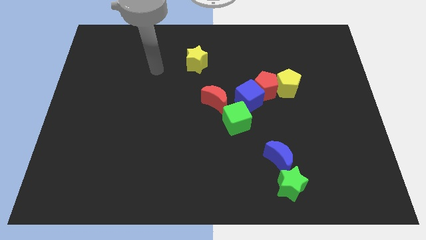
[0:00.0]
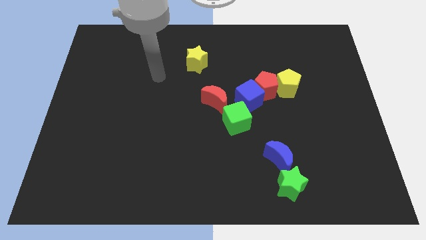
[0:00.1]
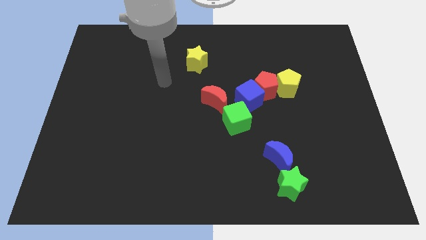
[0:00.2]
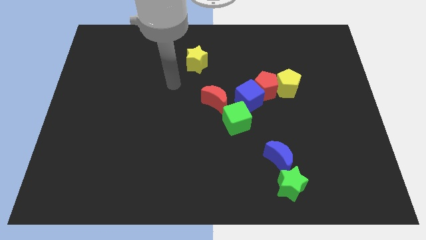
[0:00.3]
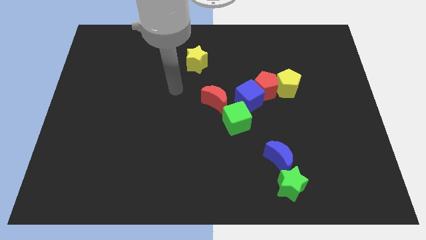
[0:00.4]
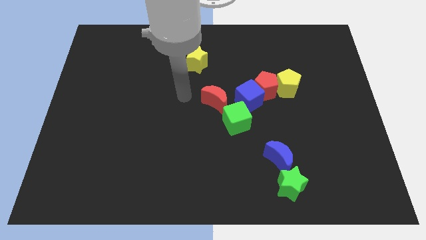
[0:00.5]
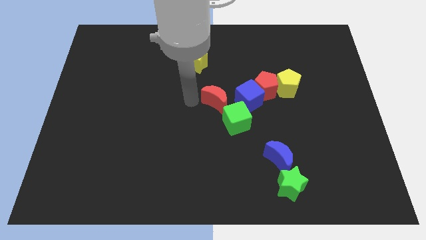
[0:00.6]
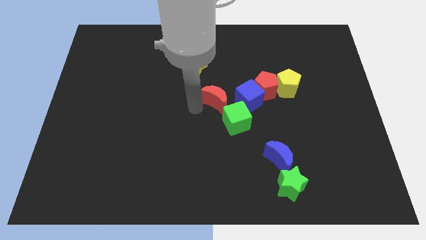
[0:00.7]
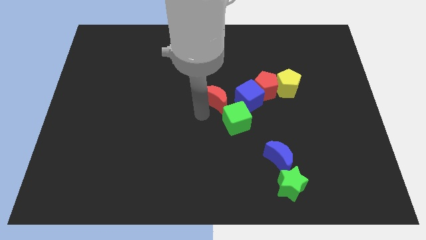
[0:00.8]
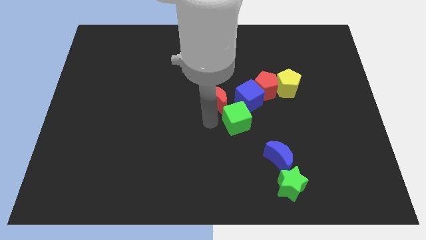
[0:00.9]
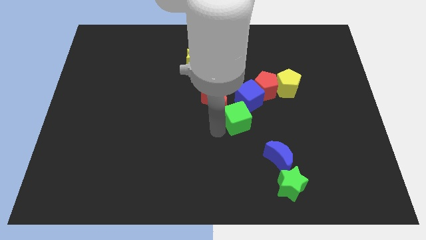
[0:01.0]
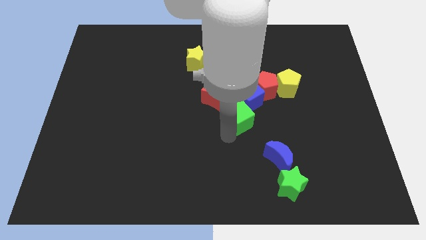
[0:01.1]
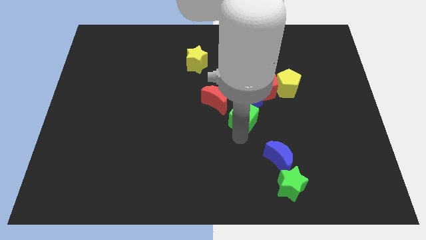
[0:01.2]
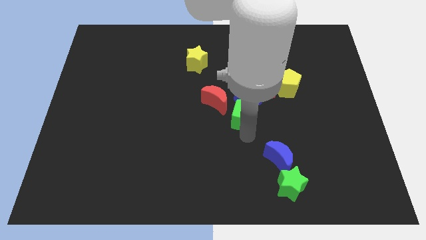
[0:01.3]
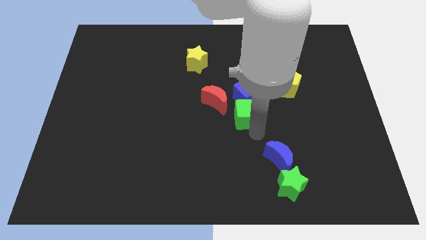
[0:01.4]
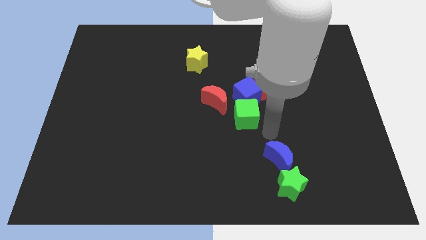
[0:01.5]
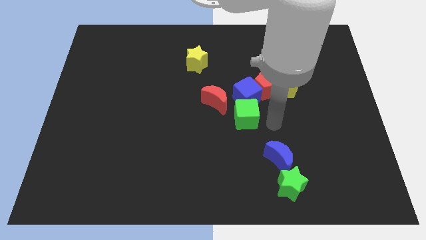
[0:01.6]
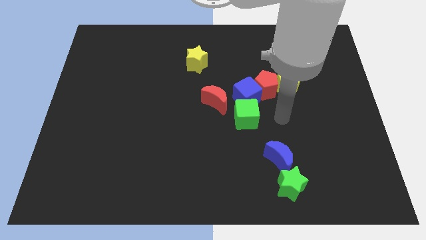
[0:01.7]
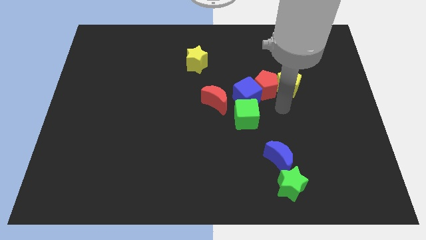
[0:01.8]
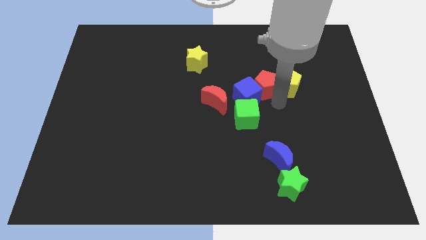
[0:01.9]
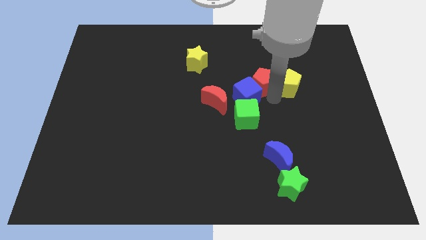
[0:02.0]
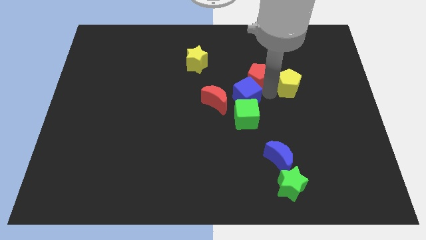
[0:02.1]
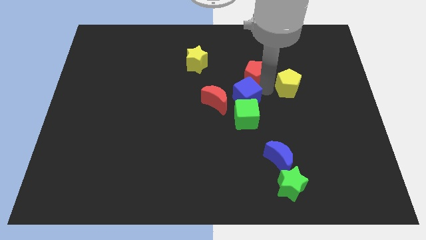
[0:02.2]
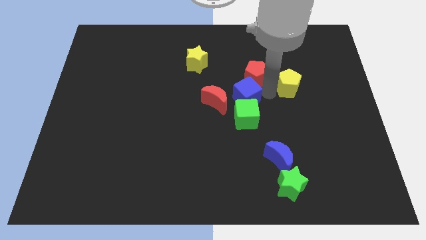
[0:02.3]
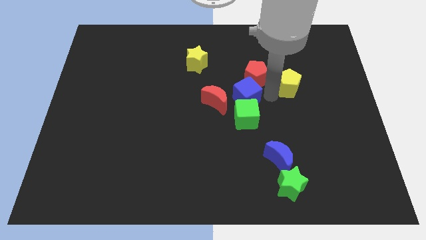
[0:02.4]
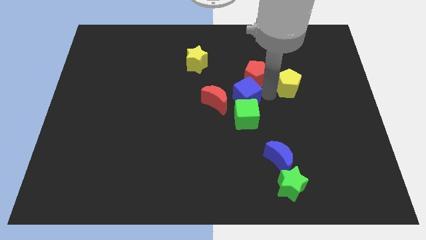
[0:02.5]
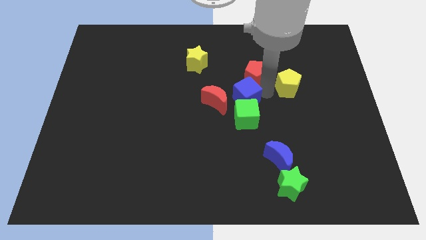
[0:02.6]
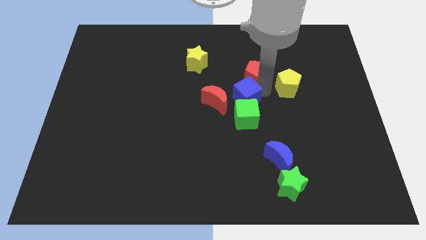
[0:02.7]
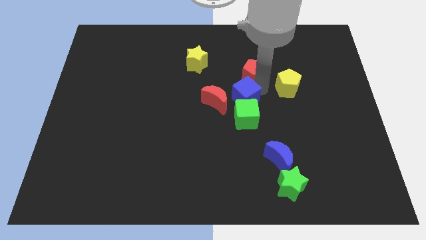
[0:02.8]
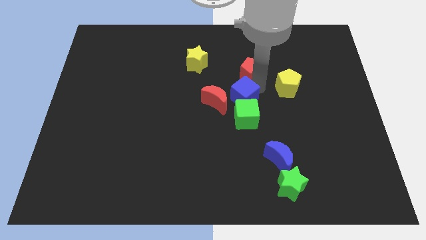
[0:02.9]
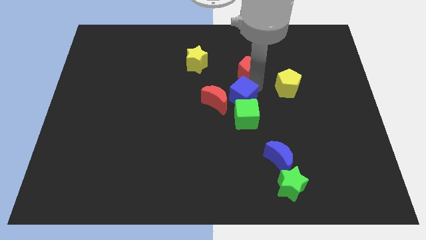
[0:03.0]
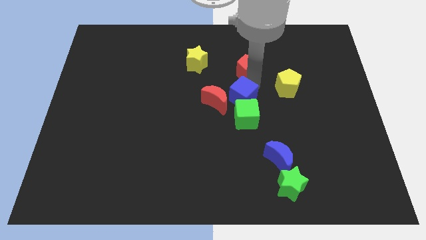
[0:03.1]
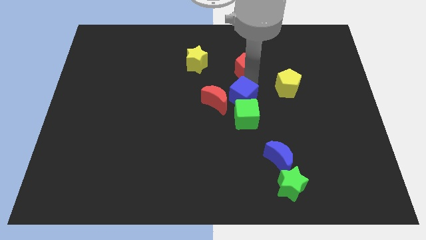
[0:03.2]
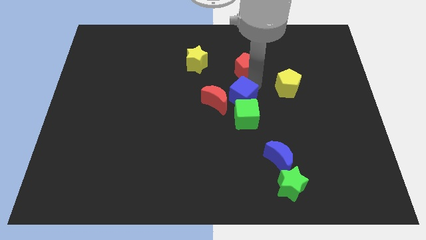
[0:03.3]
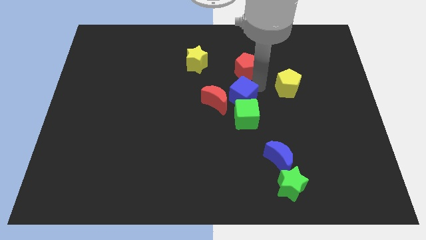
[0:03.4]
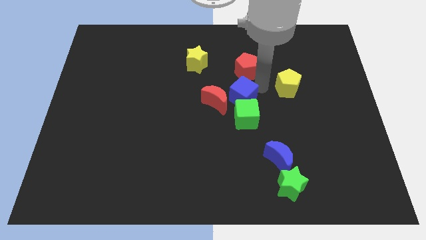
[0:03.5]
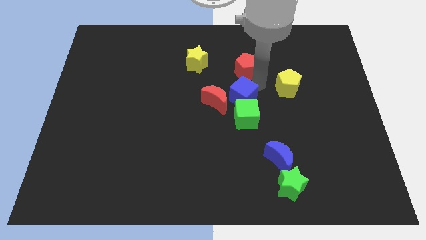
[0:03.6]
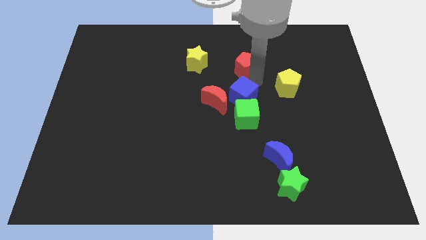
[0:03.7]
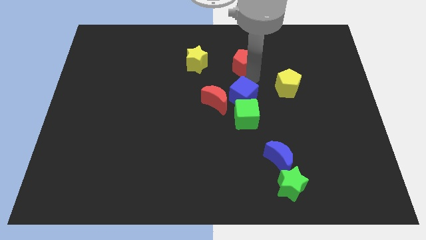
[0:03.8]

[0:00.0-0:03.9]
separate the red pentagon from the blue cube and yellow pentagon

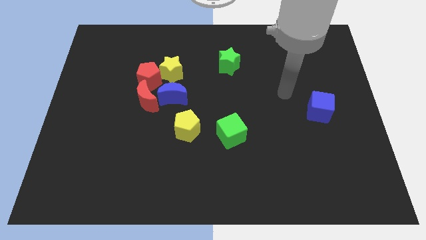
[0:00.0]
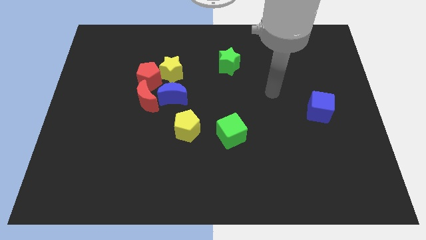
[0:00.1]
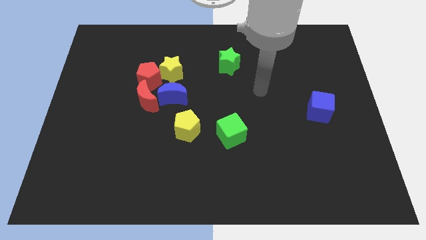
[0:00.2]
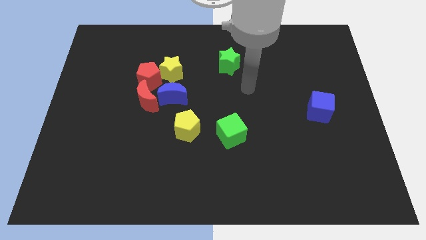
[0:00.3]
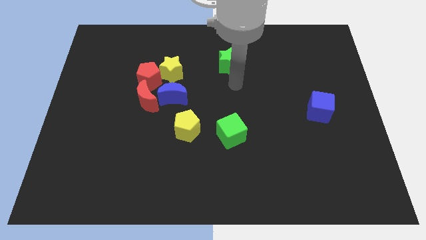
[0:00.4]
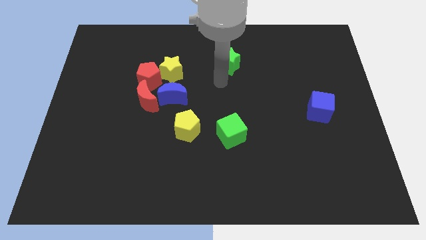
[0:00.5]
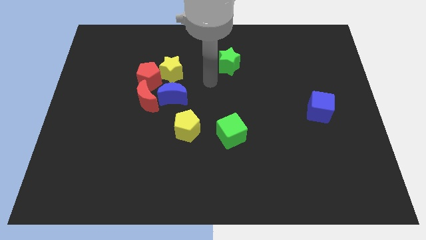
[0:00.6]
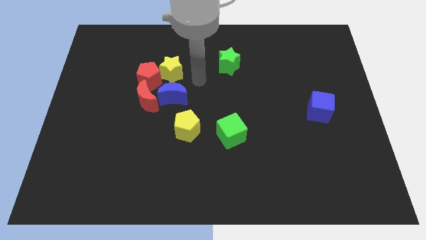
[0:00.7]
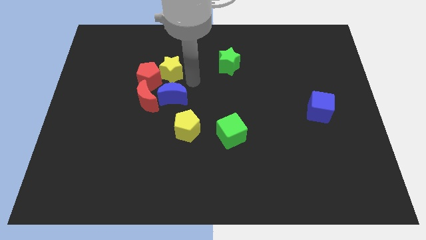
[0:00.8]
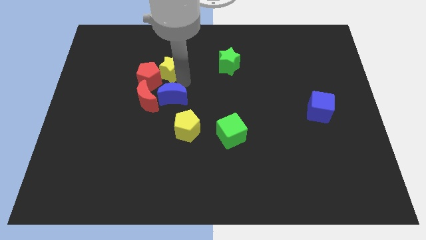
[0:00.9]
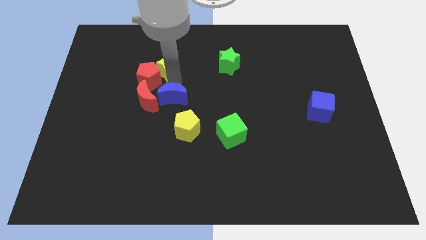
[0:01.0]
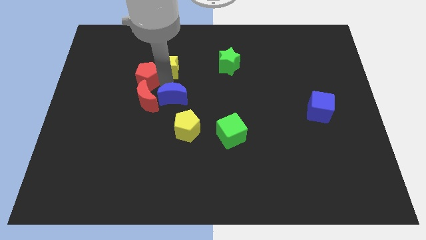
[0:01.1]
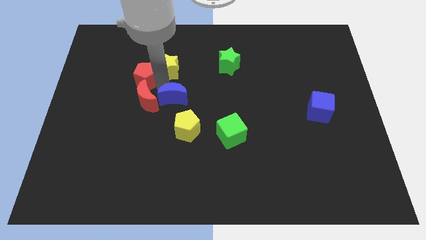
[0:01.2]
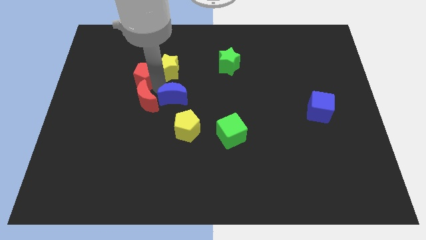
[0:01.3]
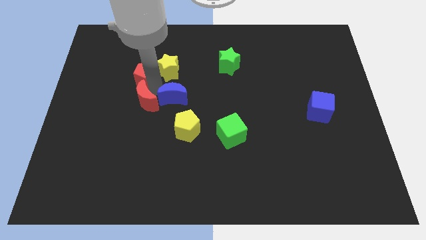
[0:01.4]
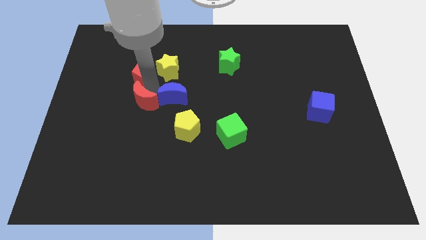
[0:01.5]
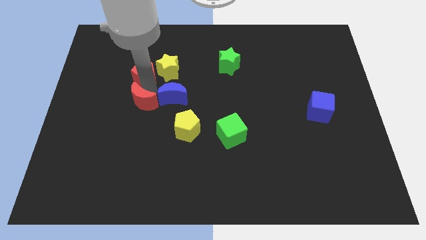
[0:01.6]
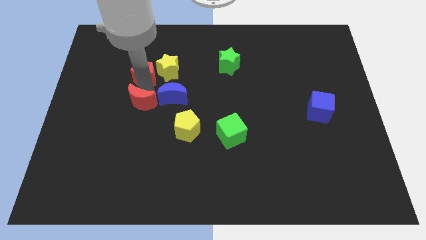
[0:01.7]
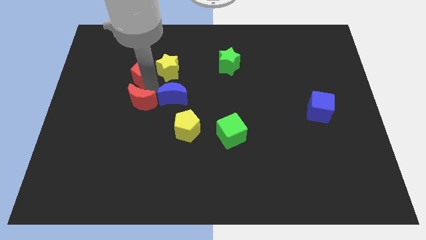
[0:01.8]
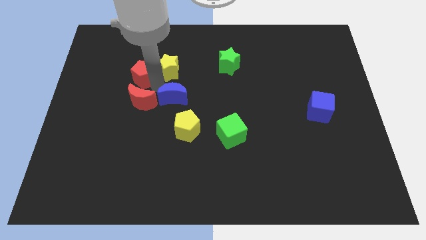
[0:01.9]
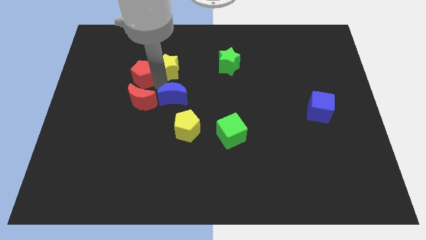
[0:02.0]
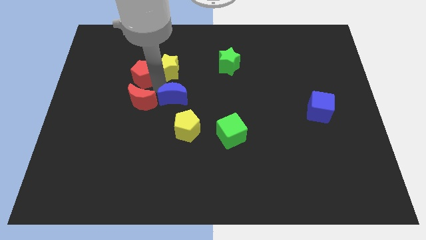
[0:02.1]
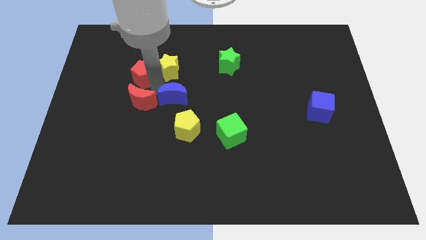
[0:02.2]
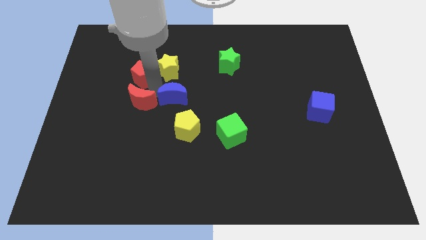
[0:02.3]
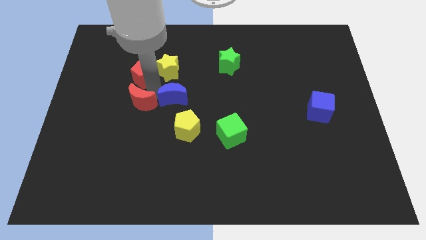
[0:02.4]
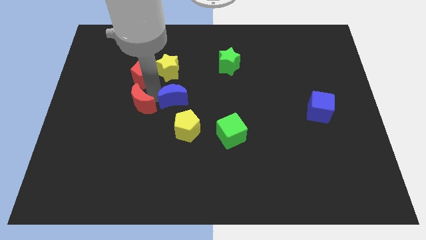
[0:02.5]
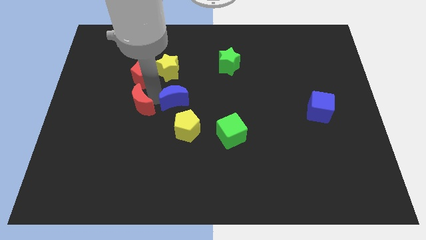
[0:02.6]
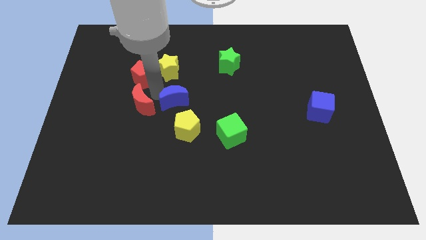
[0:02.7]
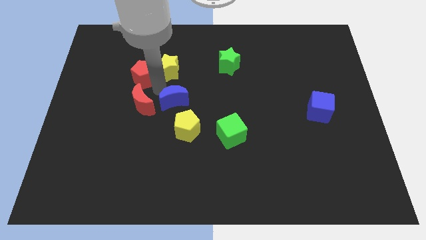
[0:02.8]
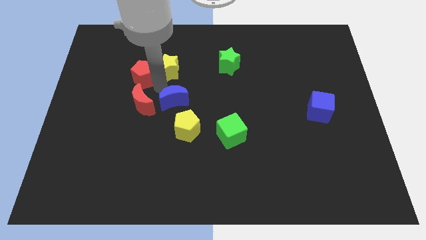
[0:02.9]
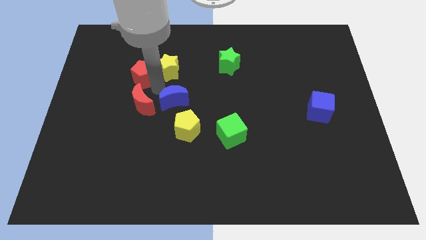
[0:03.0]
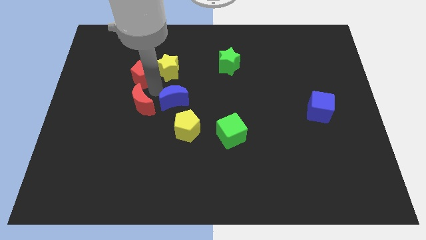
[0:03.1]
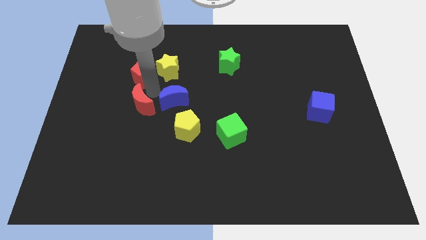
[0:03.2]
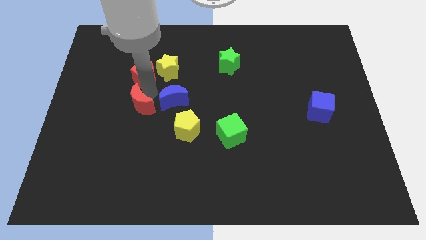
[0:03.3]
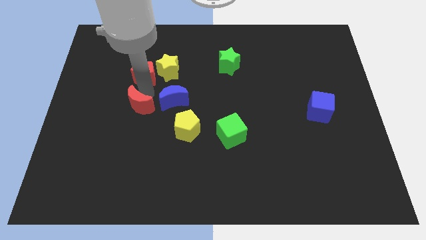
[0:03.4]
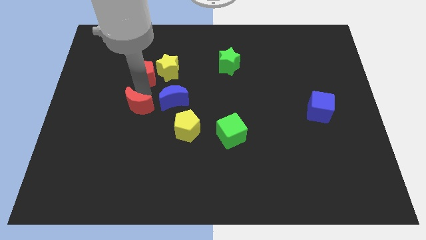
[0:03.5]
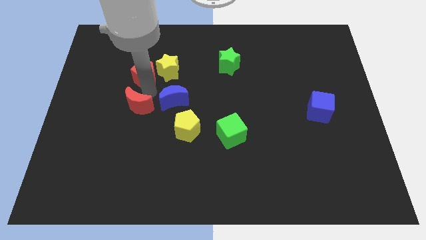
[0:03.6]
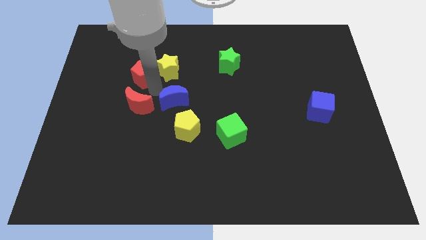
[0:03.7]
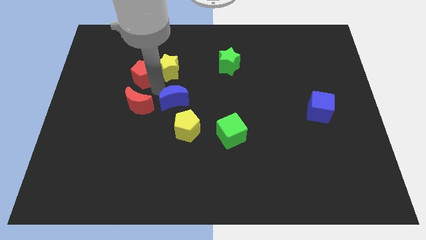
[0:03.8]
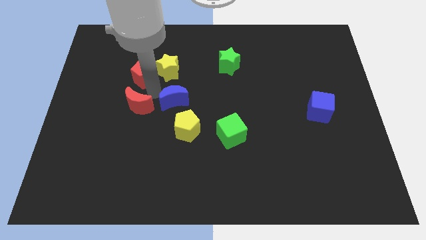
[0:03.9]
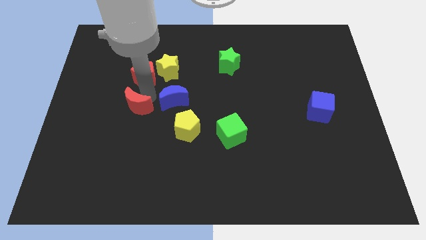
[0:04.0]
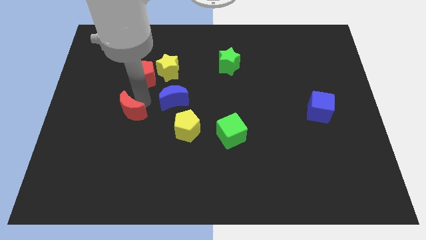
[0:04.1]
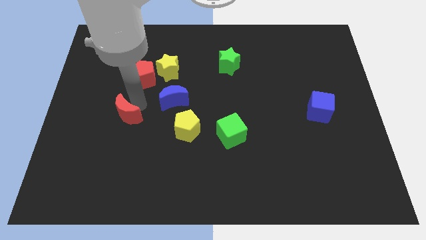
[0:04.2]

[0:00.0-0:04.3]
separate the red moon from the blue moon and red pentagon

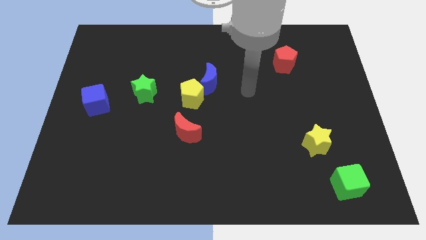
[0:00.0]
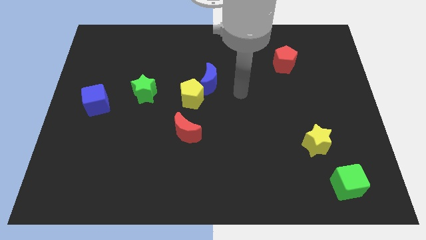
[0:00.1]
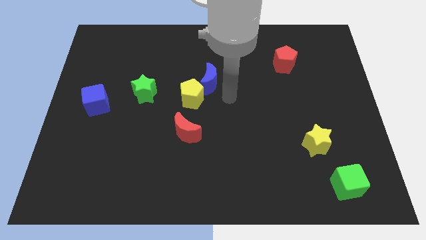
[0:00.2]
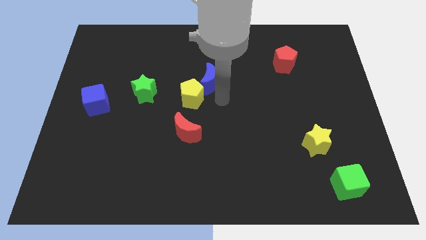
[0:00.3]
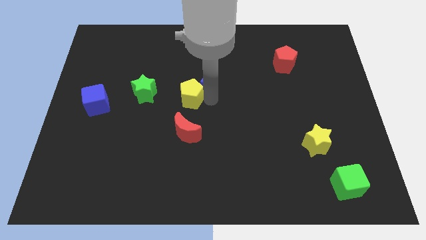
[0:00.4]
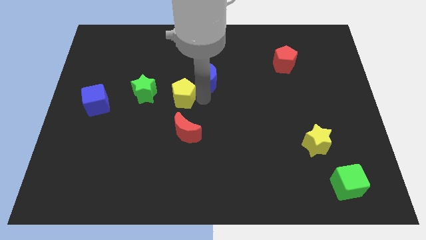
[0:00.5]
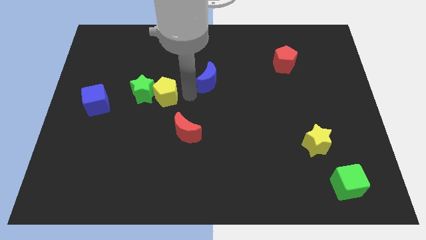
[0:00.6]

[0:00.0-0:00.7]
move the blue moon away from the yellow pentagon

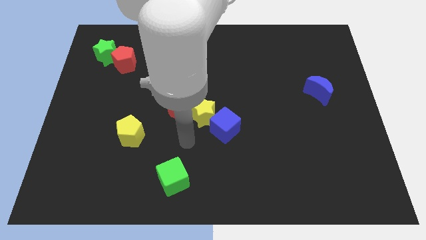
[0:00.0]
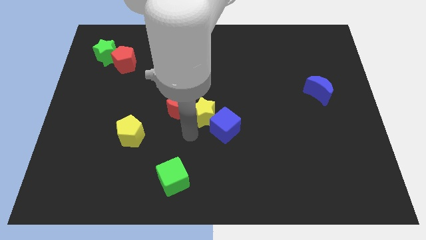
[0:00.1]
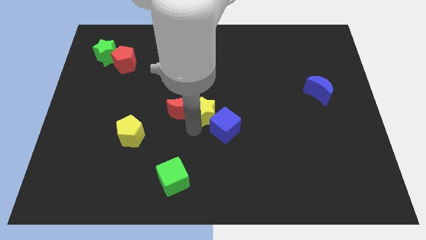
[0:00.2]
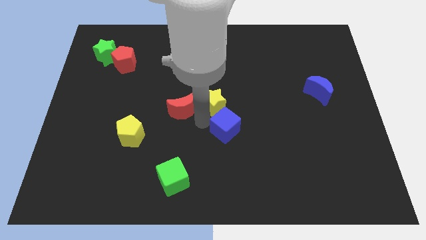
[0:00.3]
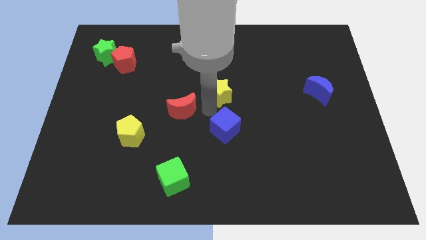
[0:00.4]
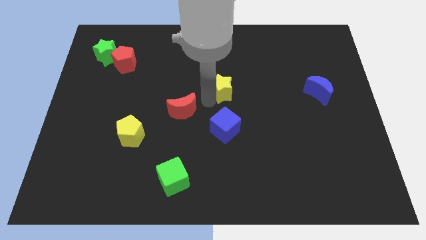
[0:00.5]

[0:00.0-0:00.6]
pull the red moon apart from the yellow star
